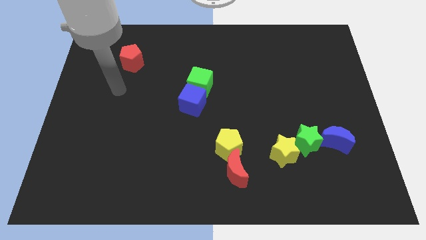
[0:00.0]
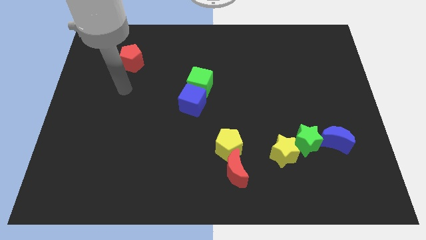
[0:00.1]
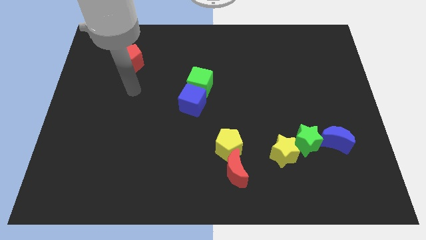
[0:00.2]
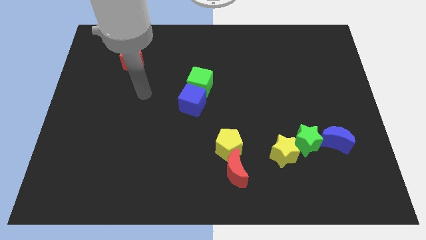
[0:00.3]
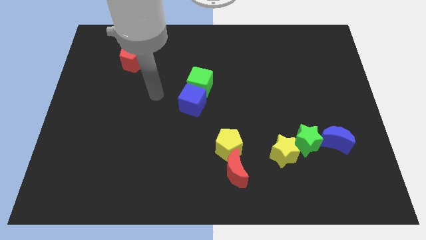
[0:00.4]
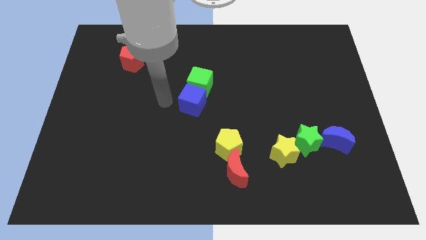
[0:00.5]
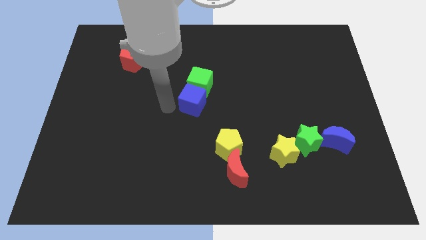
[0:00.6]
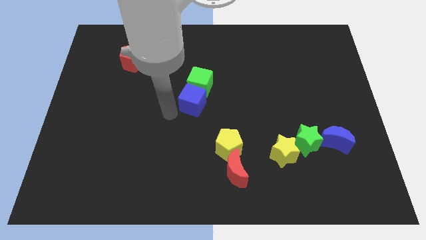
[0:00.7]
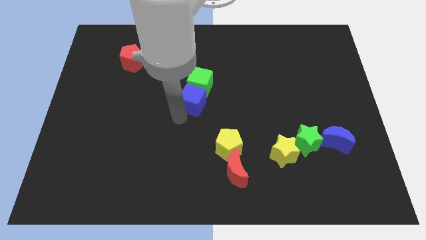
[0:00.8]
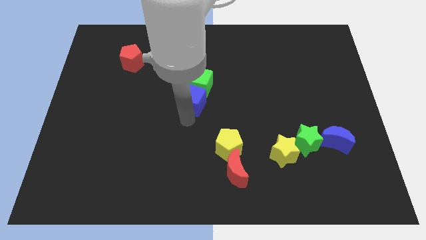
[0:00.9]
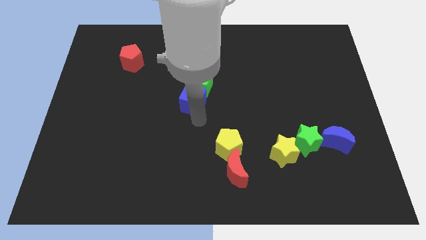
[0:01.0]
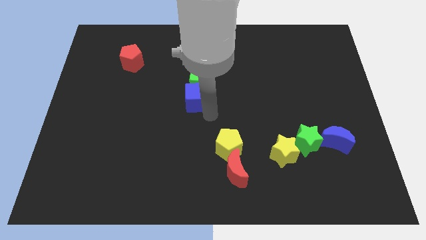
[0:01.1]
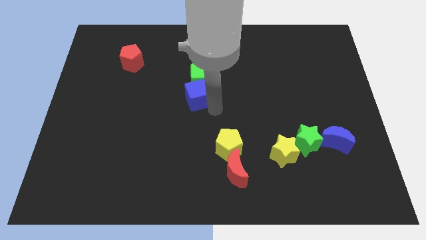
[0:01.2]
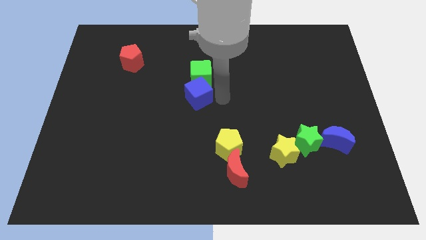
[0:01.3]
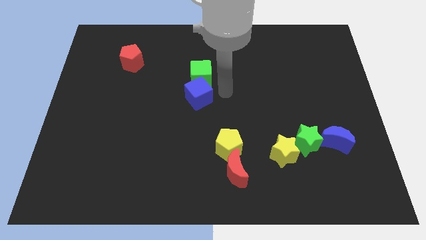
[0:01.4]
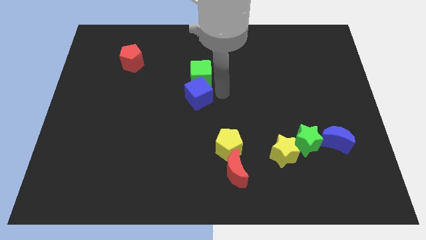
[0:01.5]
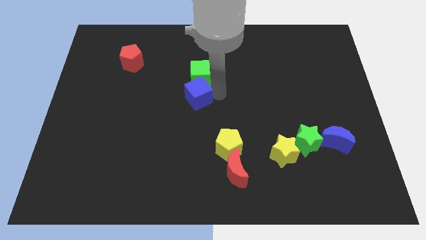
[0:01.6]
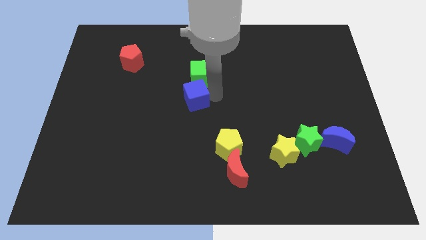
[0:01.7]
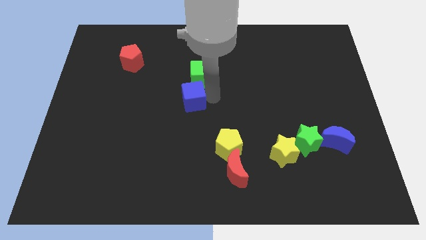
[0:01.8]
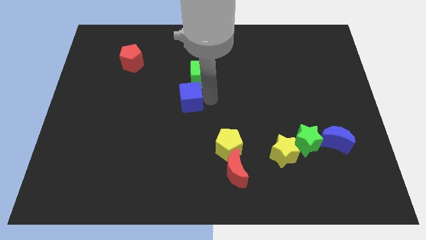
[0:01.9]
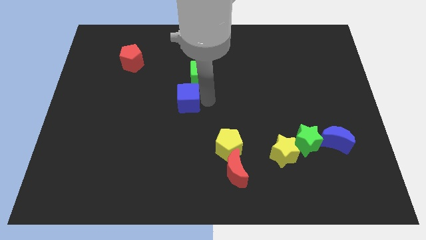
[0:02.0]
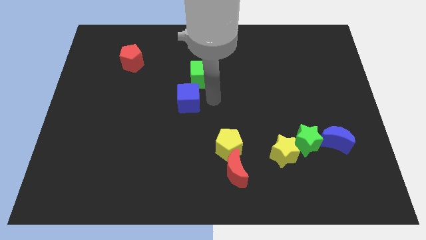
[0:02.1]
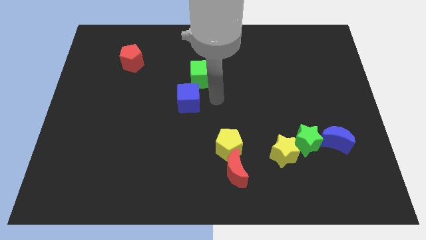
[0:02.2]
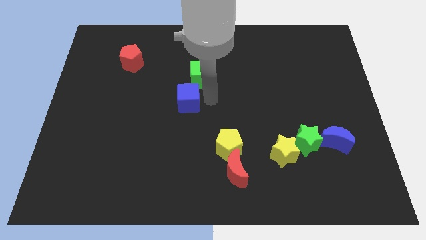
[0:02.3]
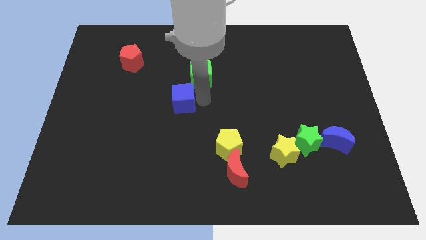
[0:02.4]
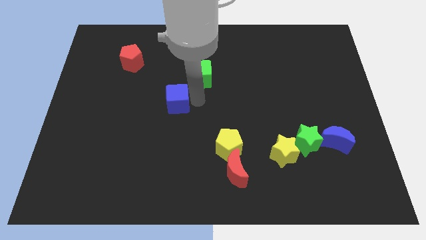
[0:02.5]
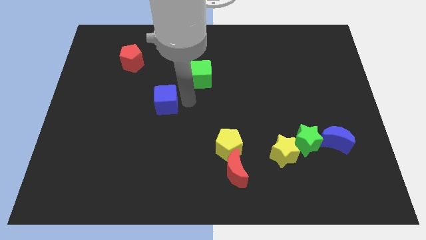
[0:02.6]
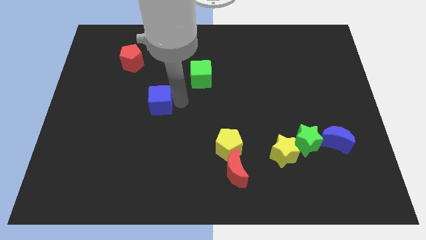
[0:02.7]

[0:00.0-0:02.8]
push the blue cube left a little bit

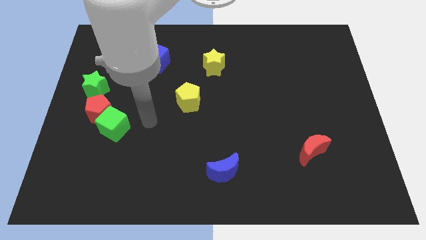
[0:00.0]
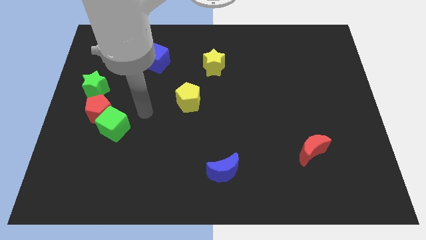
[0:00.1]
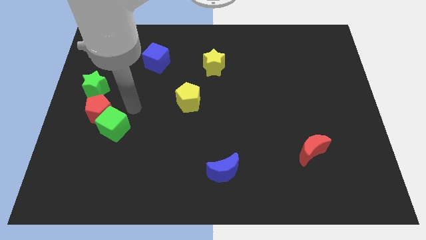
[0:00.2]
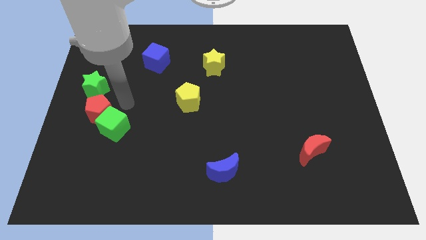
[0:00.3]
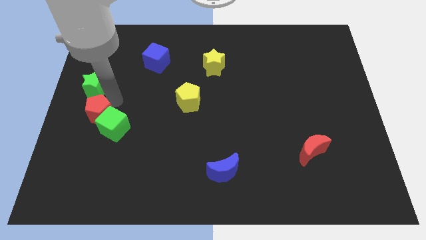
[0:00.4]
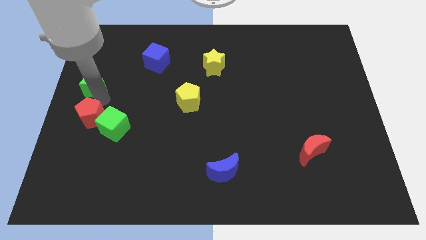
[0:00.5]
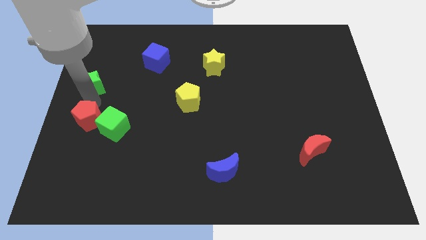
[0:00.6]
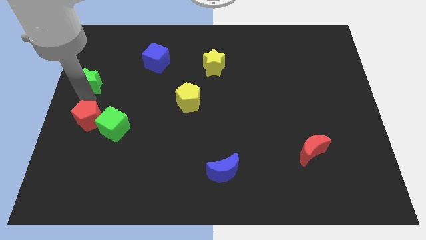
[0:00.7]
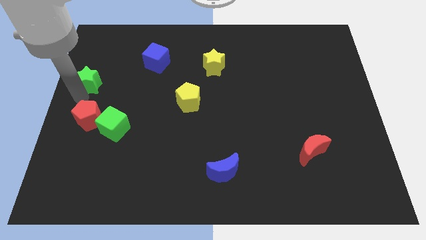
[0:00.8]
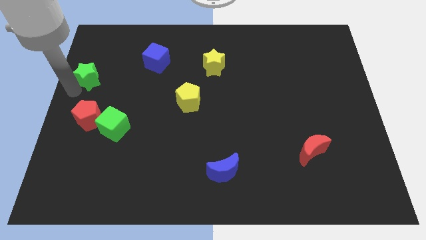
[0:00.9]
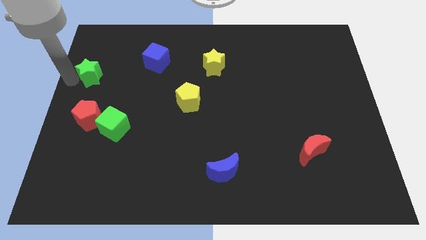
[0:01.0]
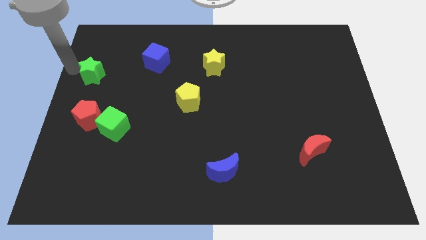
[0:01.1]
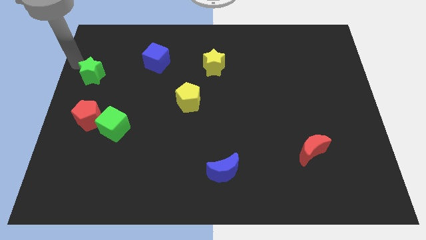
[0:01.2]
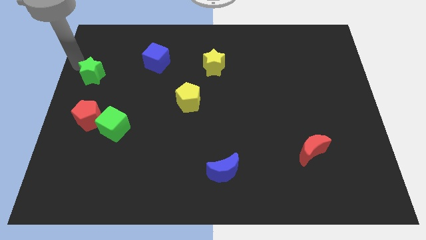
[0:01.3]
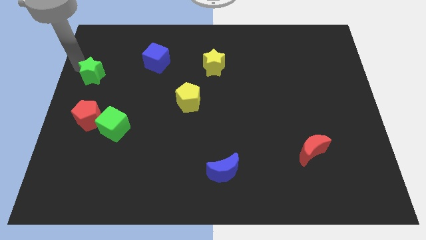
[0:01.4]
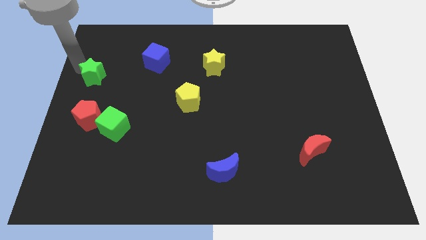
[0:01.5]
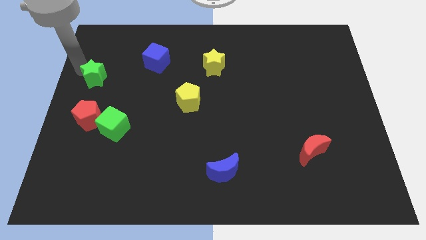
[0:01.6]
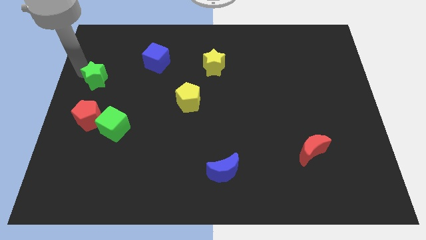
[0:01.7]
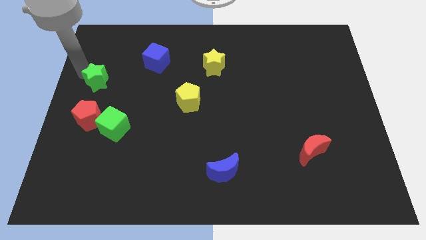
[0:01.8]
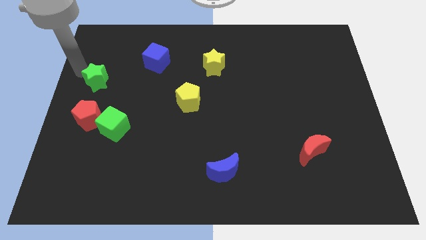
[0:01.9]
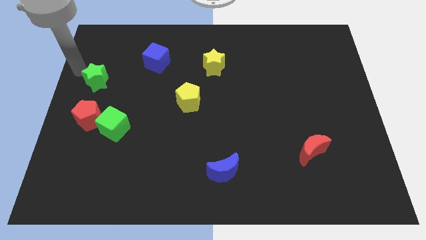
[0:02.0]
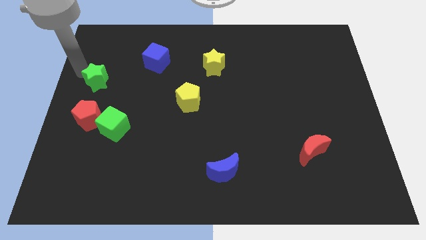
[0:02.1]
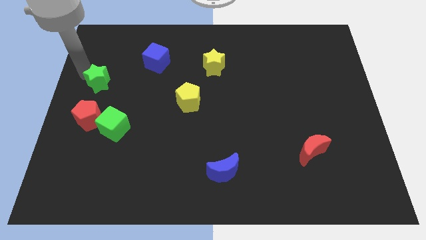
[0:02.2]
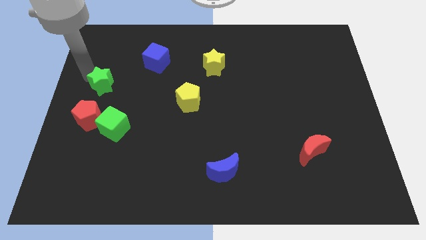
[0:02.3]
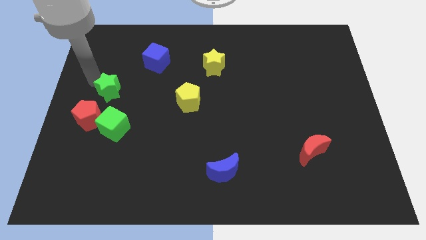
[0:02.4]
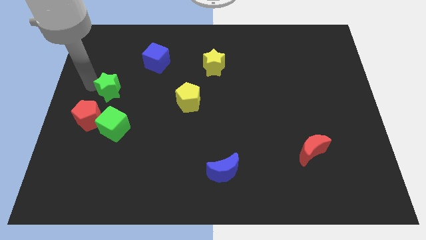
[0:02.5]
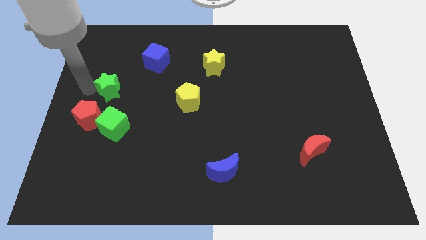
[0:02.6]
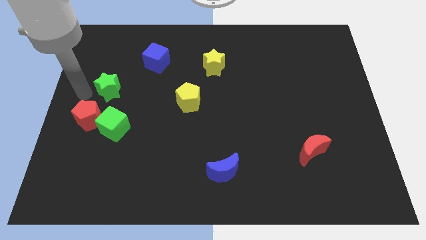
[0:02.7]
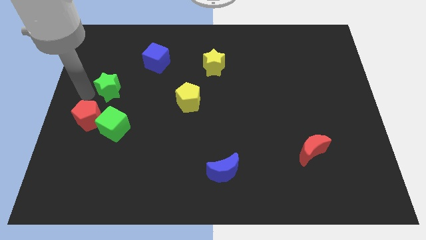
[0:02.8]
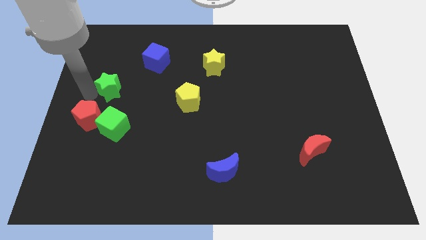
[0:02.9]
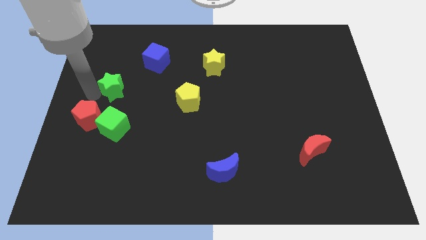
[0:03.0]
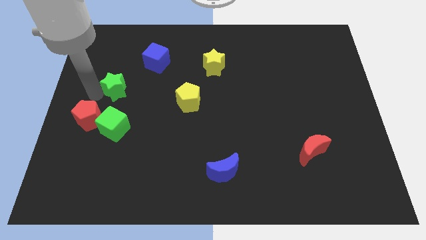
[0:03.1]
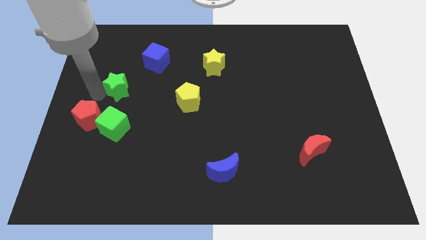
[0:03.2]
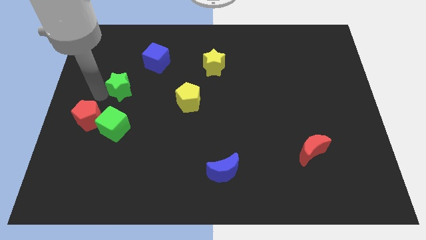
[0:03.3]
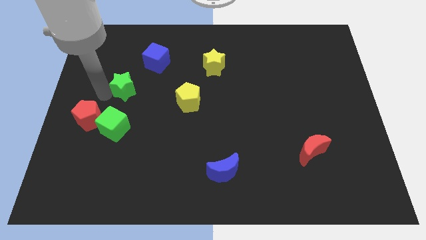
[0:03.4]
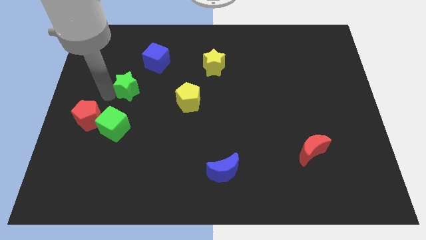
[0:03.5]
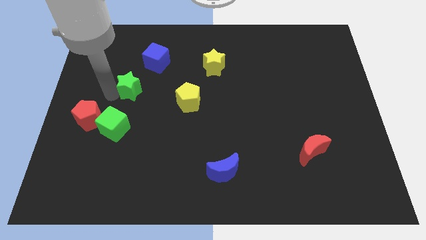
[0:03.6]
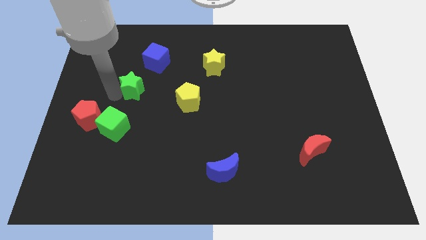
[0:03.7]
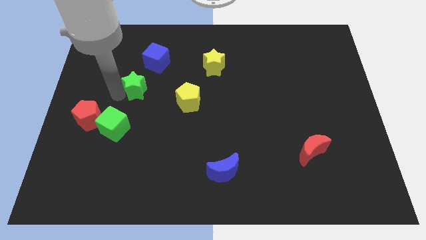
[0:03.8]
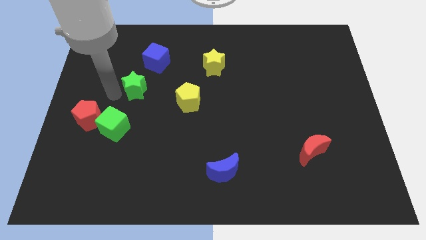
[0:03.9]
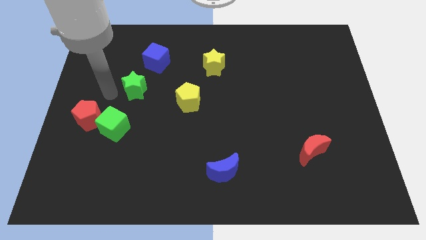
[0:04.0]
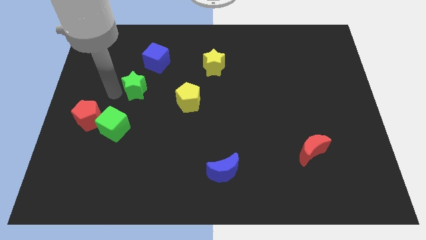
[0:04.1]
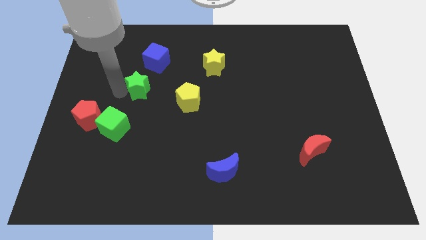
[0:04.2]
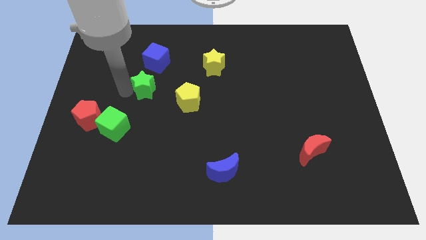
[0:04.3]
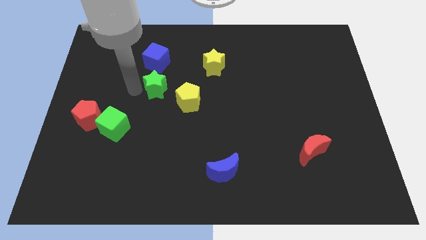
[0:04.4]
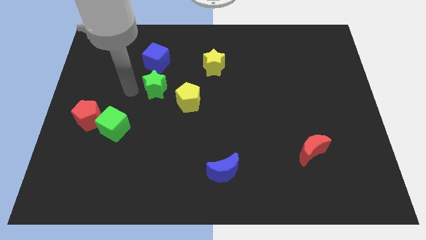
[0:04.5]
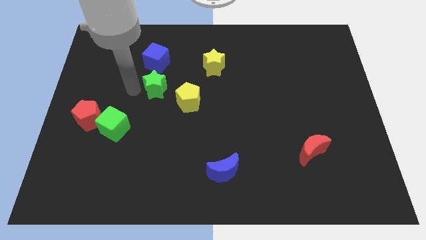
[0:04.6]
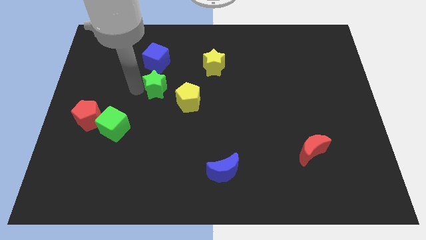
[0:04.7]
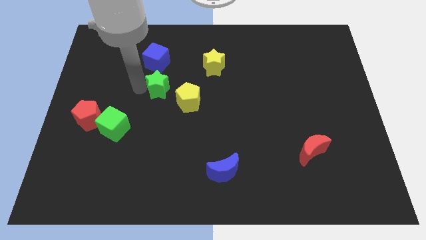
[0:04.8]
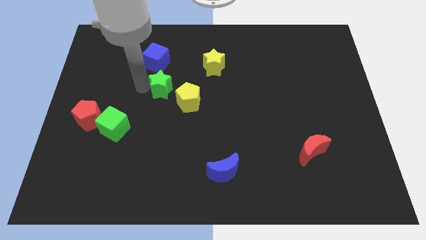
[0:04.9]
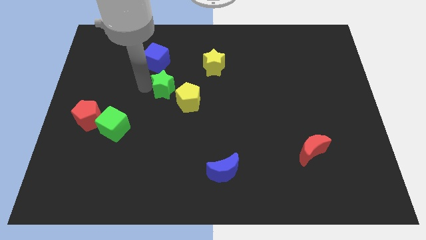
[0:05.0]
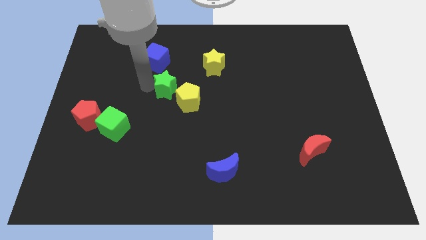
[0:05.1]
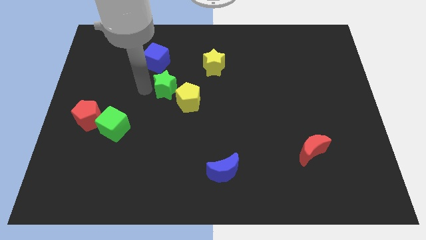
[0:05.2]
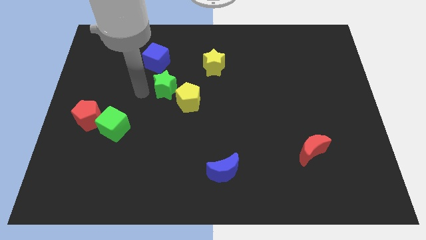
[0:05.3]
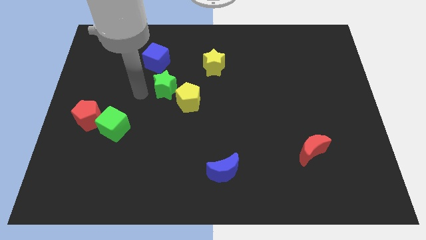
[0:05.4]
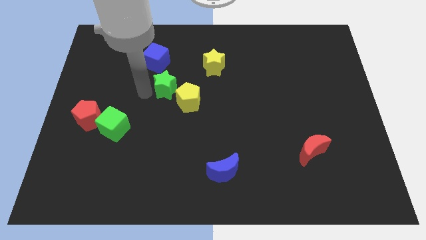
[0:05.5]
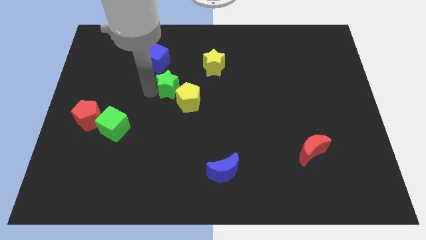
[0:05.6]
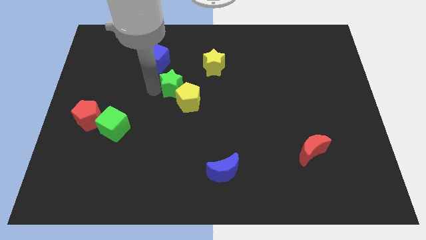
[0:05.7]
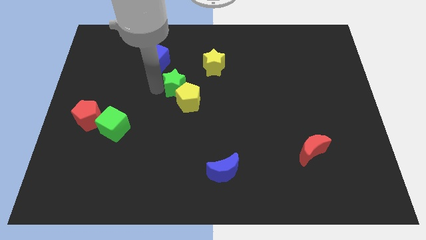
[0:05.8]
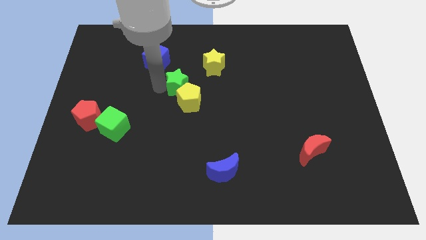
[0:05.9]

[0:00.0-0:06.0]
push the green star to the right
